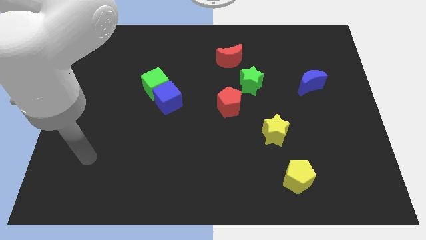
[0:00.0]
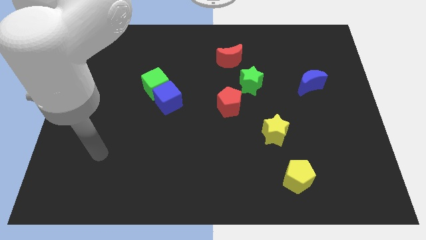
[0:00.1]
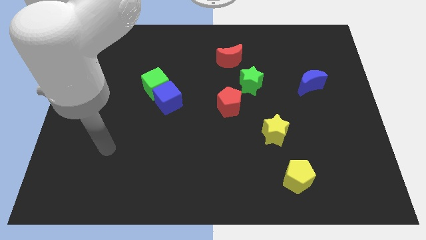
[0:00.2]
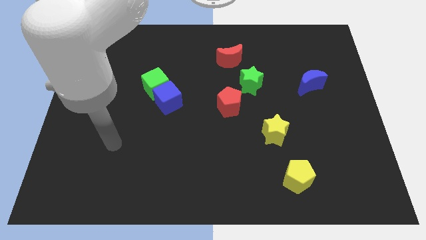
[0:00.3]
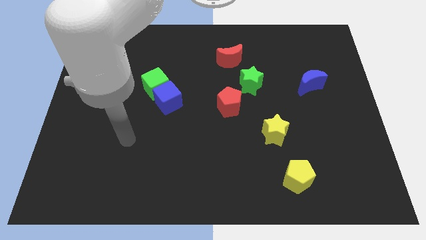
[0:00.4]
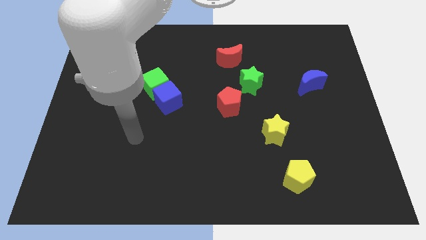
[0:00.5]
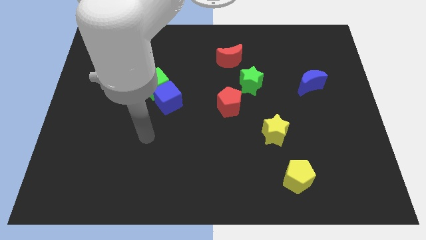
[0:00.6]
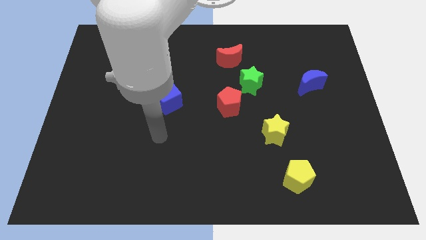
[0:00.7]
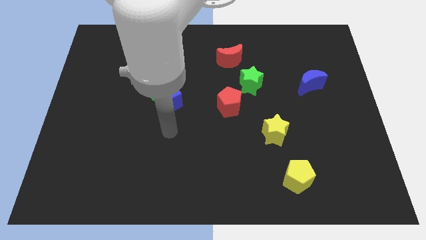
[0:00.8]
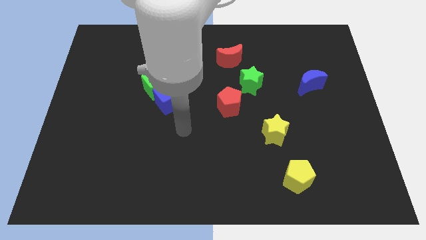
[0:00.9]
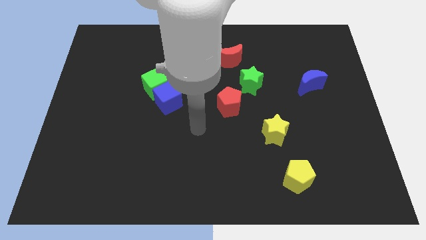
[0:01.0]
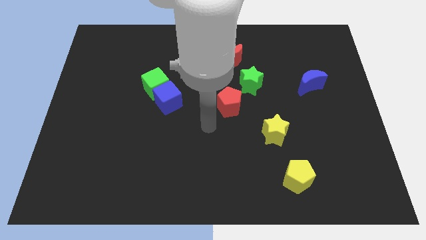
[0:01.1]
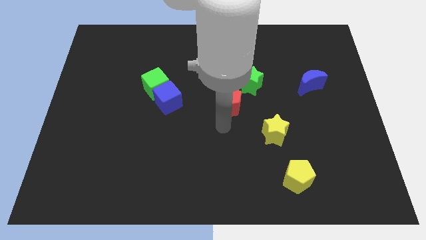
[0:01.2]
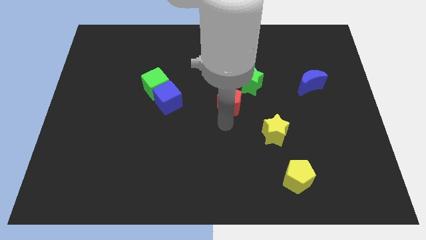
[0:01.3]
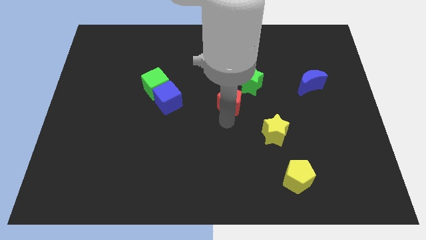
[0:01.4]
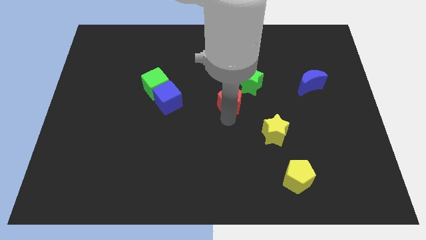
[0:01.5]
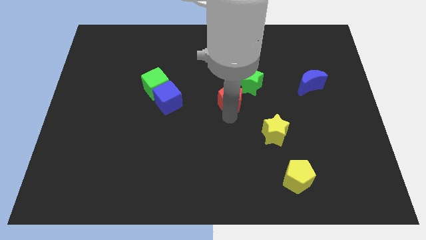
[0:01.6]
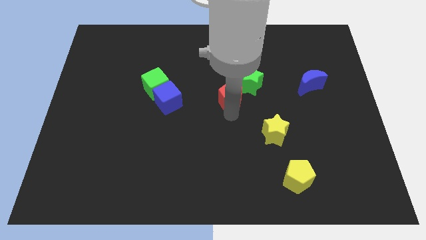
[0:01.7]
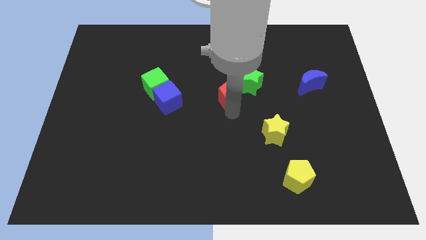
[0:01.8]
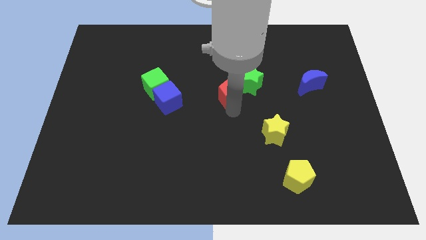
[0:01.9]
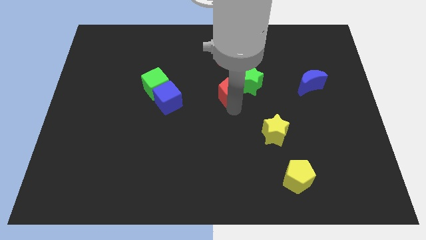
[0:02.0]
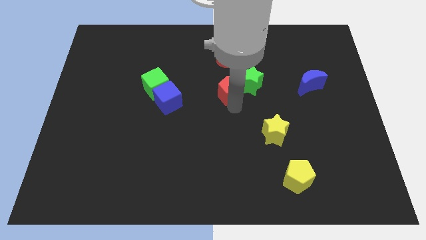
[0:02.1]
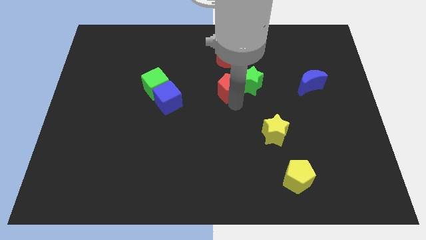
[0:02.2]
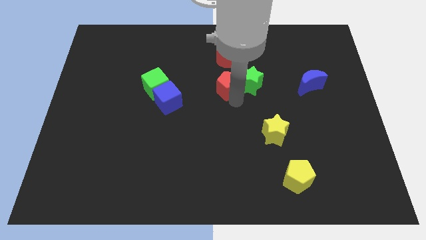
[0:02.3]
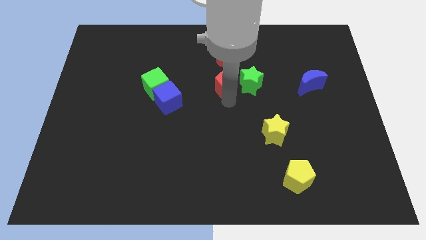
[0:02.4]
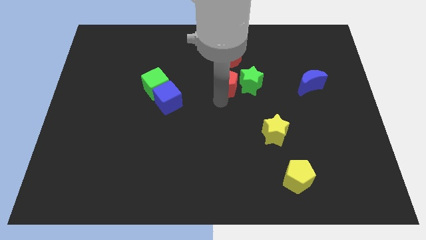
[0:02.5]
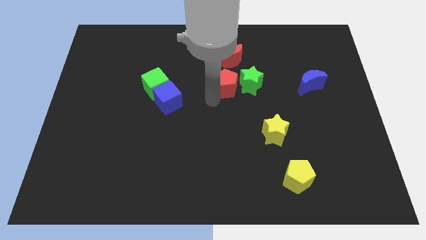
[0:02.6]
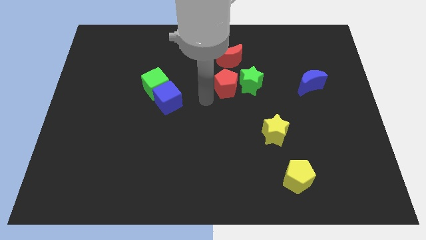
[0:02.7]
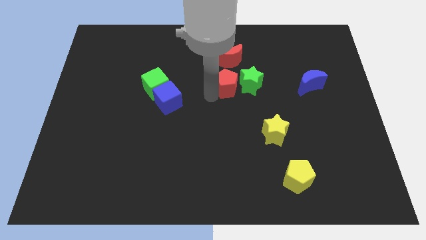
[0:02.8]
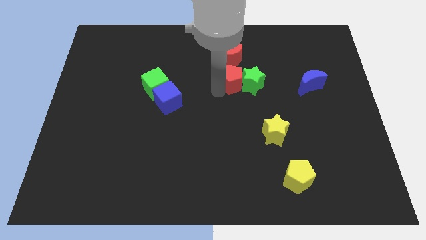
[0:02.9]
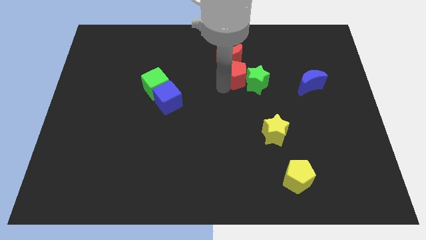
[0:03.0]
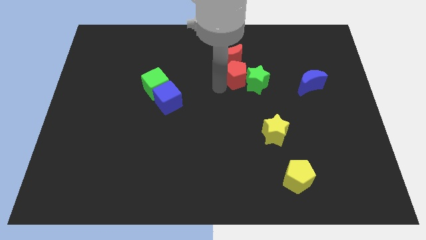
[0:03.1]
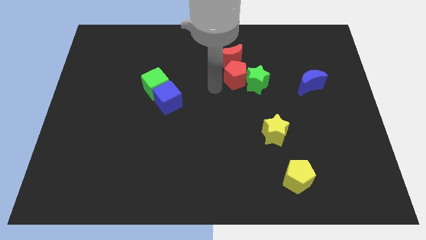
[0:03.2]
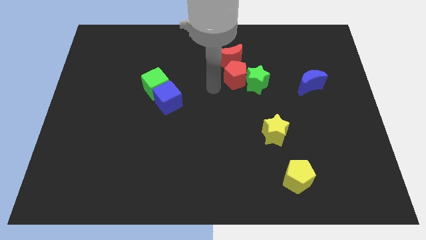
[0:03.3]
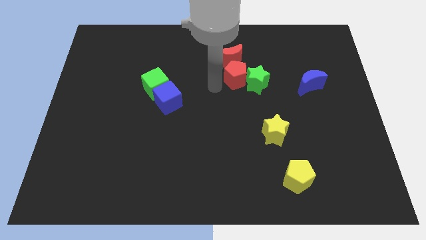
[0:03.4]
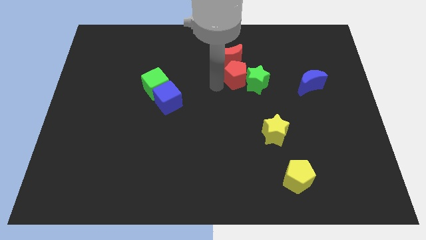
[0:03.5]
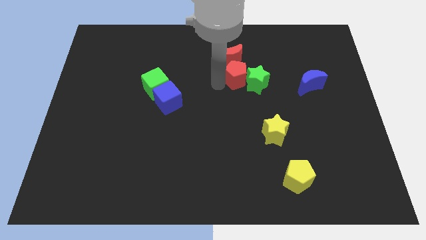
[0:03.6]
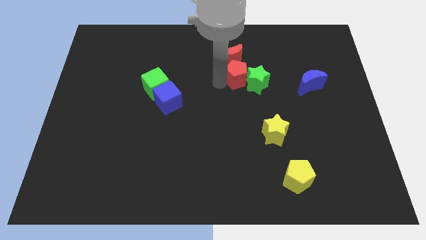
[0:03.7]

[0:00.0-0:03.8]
slide the red pentagon up and right somewhat

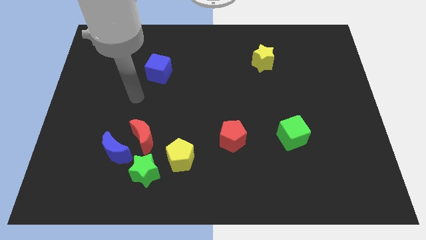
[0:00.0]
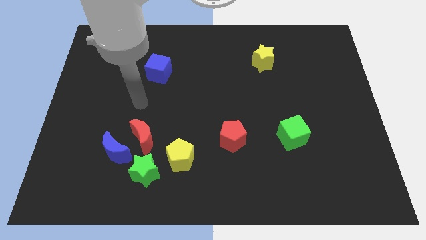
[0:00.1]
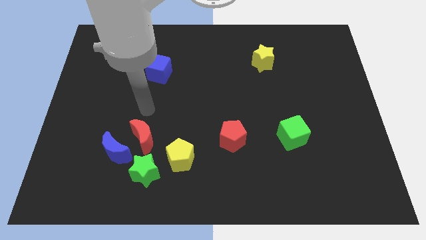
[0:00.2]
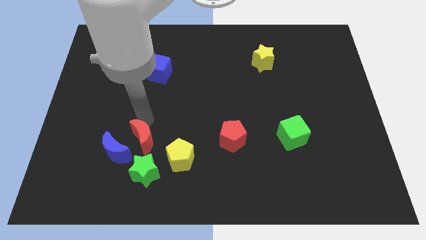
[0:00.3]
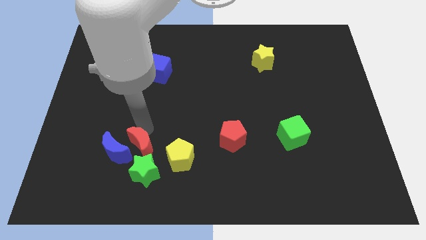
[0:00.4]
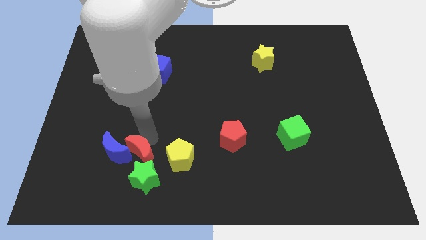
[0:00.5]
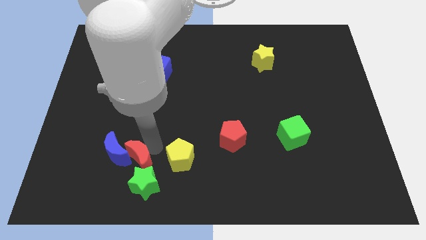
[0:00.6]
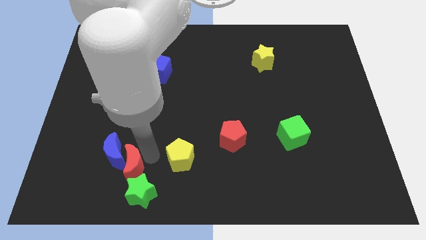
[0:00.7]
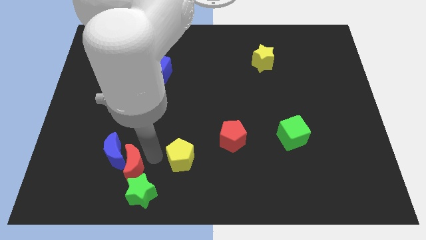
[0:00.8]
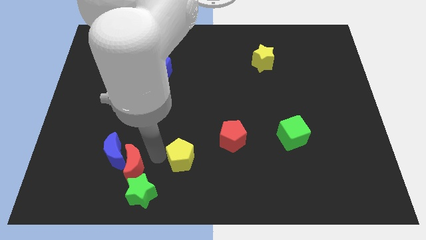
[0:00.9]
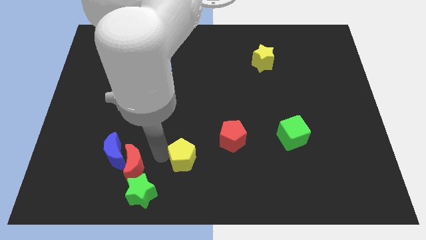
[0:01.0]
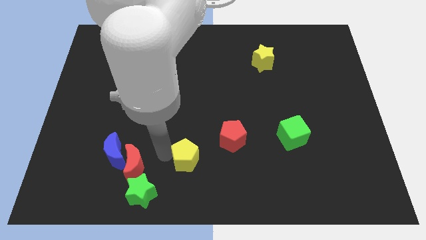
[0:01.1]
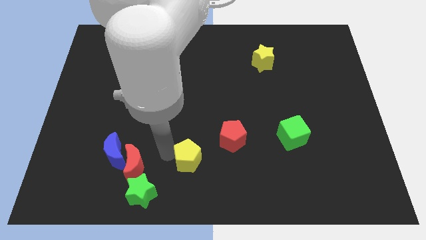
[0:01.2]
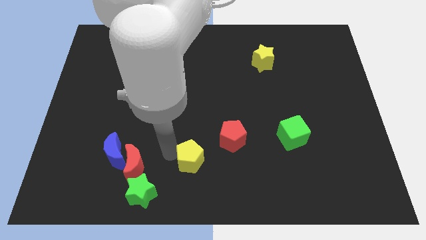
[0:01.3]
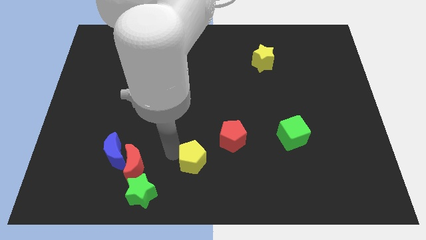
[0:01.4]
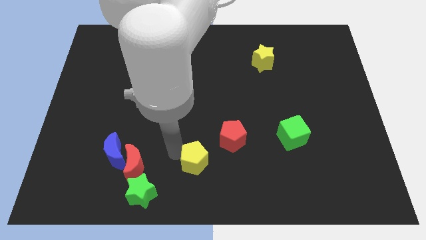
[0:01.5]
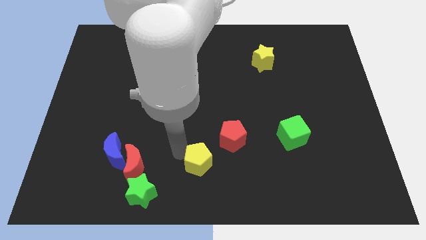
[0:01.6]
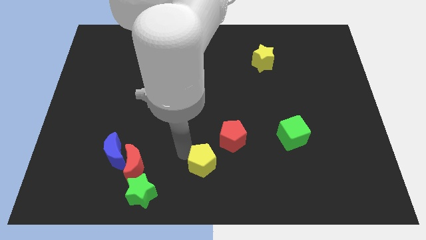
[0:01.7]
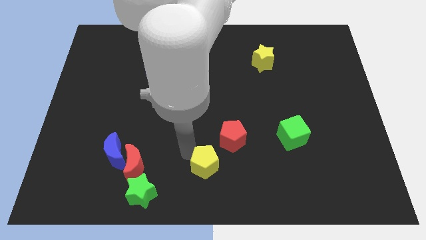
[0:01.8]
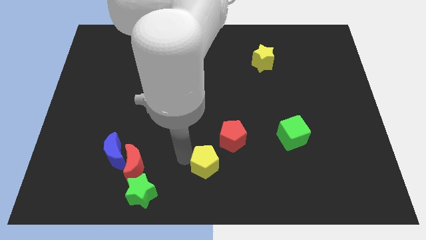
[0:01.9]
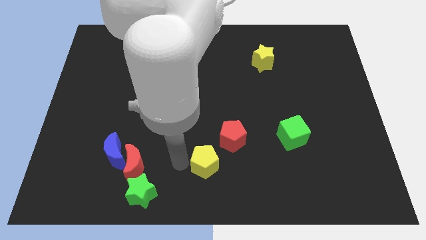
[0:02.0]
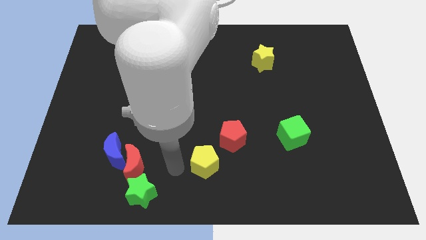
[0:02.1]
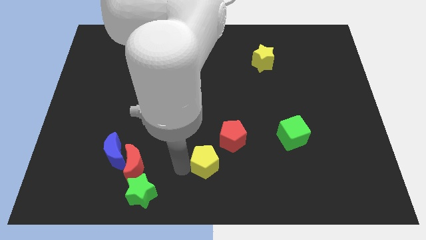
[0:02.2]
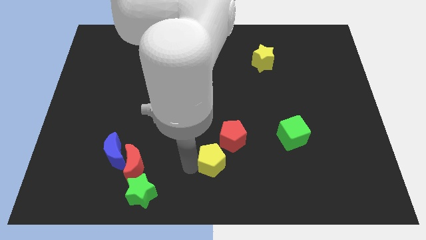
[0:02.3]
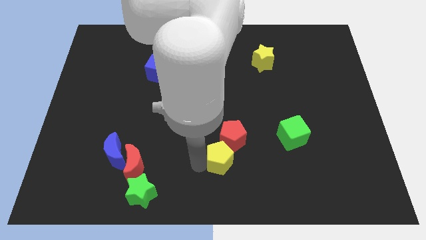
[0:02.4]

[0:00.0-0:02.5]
slightly slide the yellow pentagon right

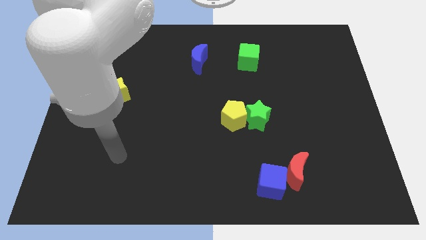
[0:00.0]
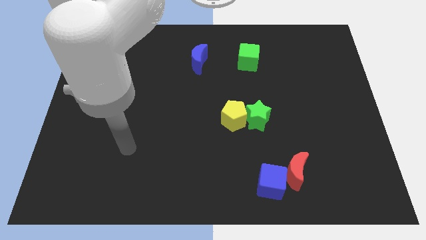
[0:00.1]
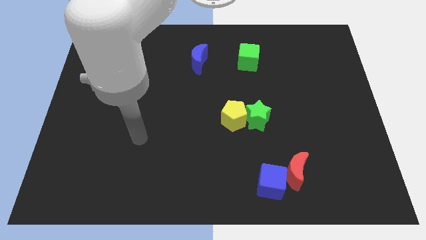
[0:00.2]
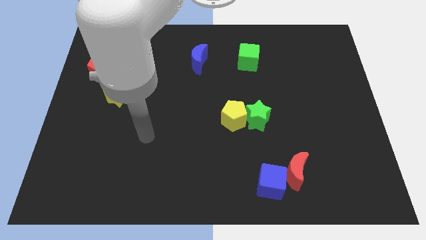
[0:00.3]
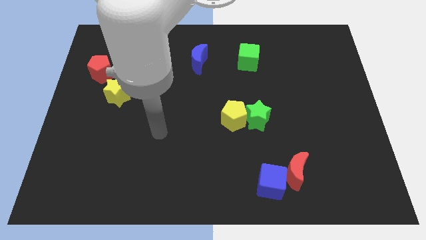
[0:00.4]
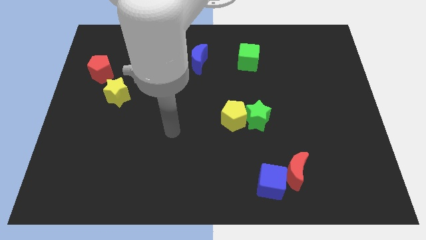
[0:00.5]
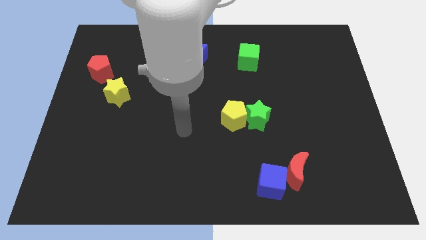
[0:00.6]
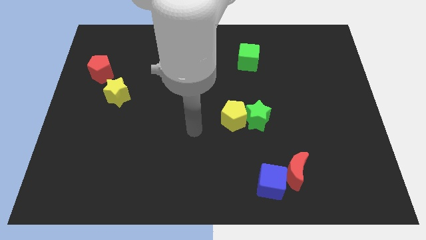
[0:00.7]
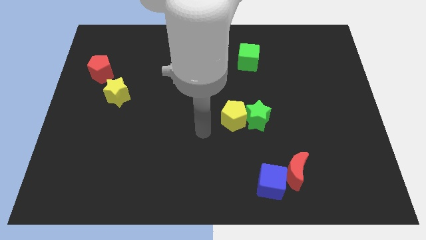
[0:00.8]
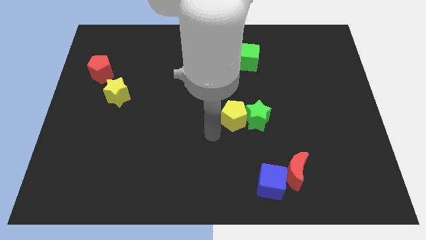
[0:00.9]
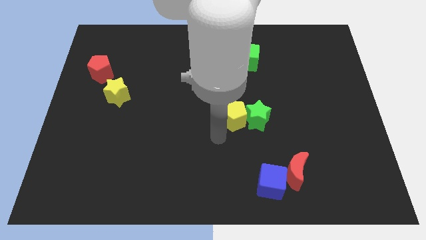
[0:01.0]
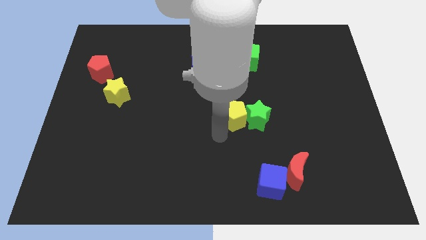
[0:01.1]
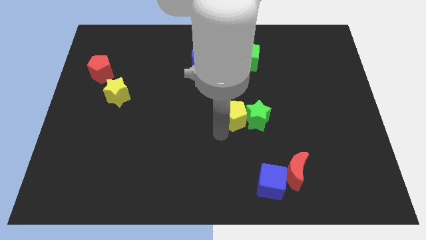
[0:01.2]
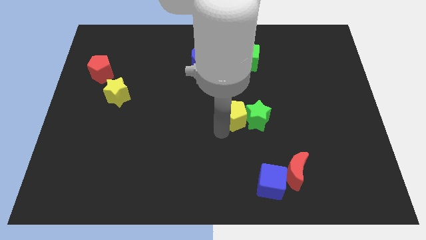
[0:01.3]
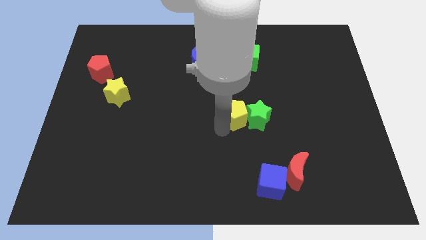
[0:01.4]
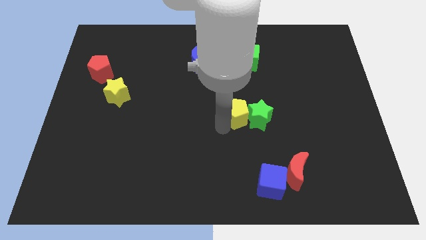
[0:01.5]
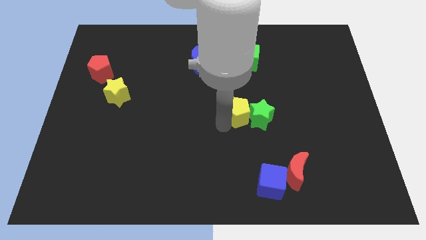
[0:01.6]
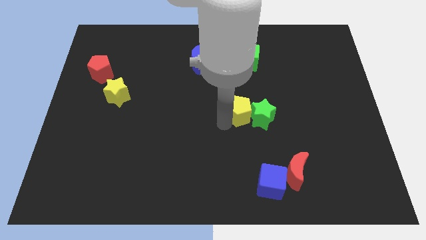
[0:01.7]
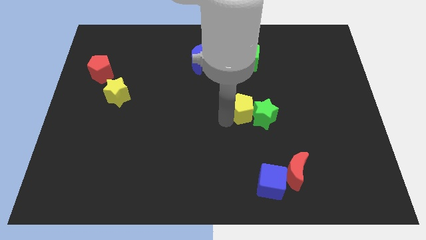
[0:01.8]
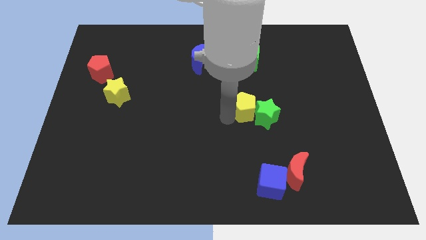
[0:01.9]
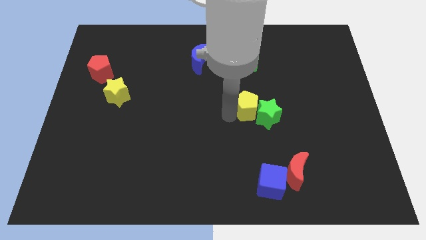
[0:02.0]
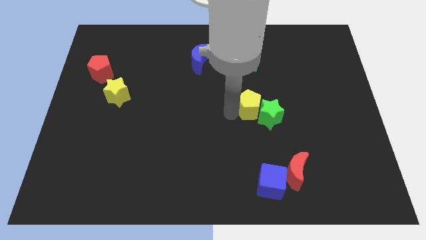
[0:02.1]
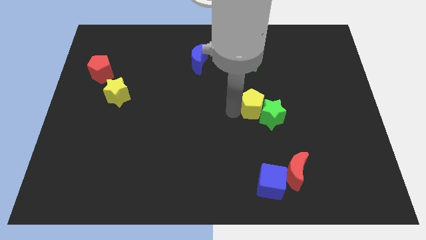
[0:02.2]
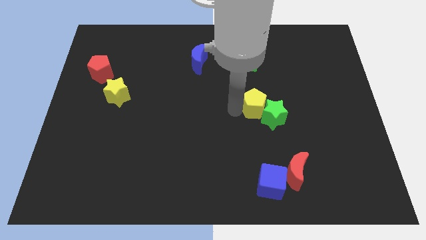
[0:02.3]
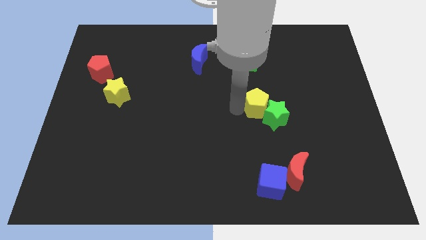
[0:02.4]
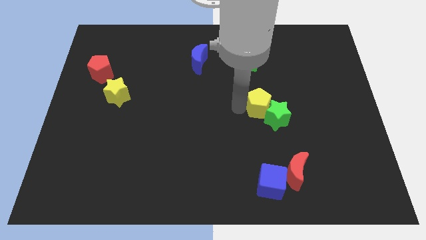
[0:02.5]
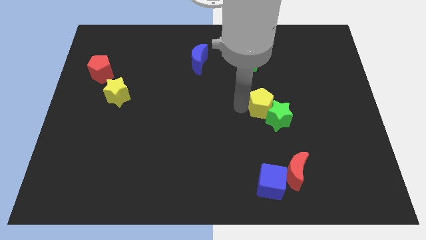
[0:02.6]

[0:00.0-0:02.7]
move the yellow pentagon upwards and right diagonally slightly
